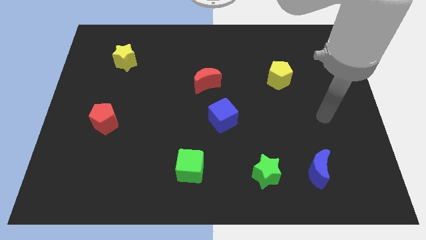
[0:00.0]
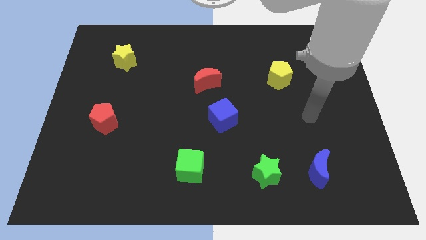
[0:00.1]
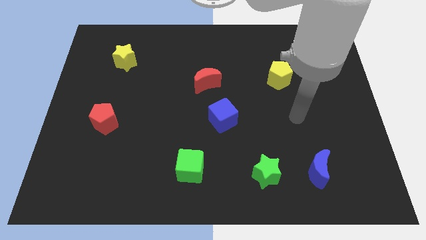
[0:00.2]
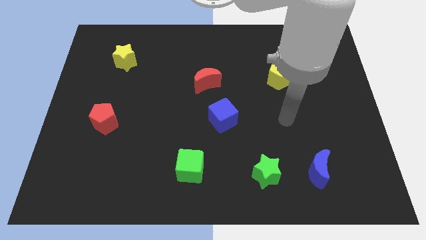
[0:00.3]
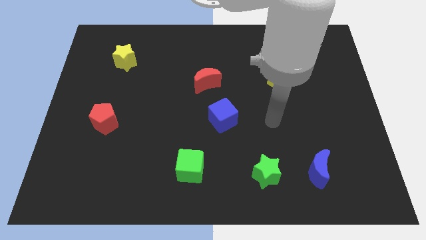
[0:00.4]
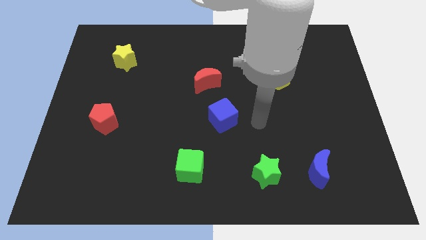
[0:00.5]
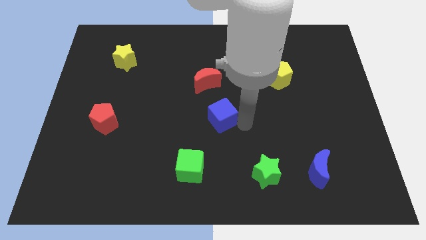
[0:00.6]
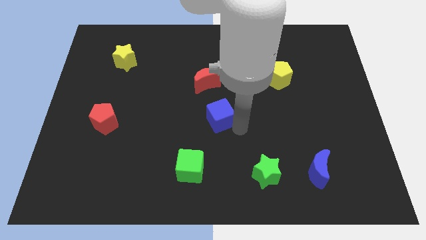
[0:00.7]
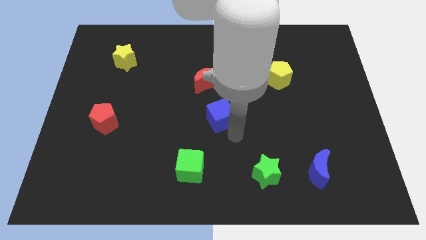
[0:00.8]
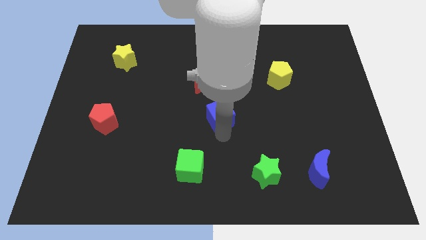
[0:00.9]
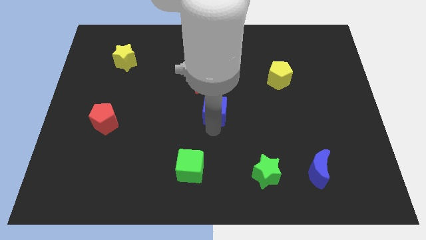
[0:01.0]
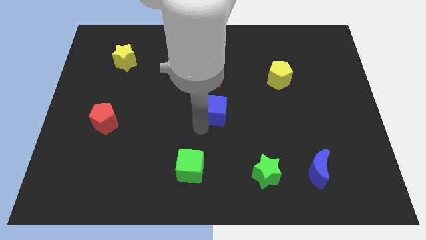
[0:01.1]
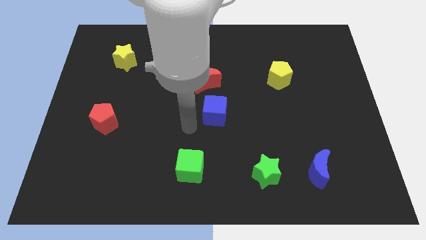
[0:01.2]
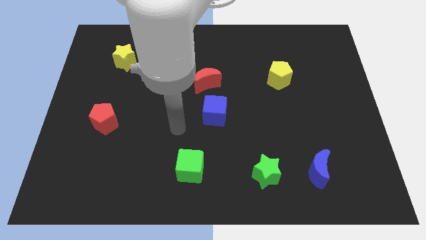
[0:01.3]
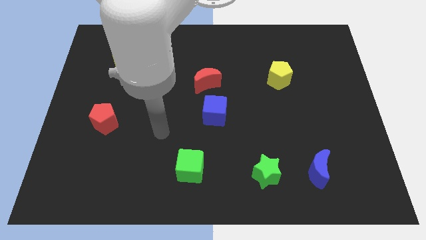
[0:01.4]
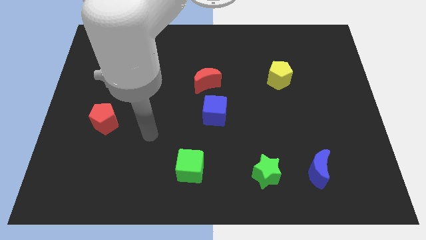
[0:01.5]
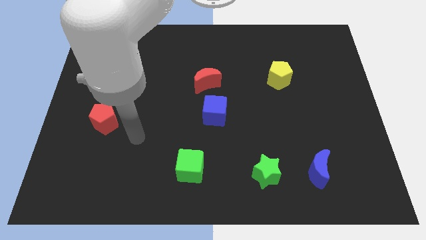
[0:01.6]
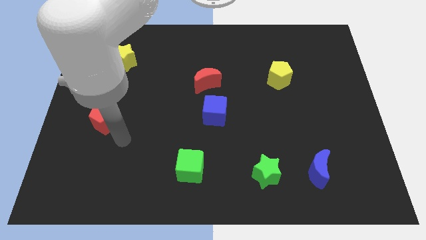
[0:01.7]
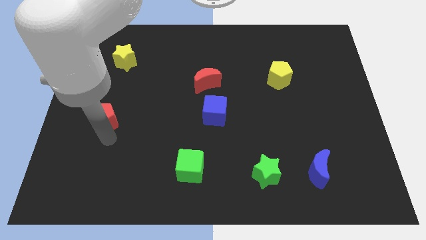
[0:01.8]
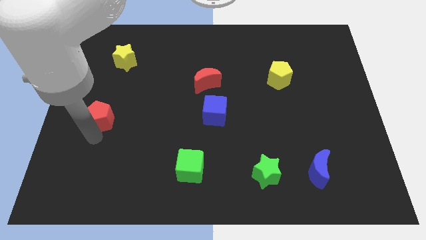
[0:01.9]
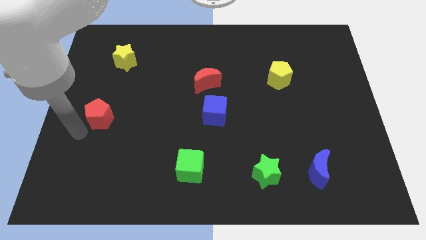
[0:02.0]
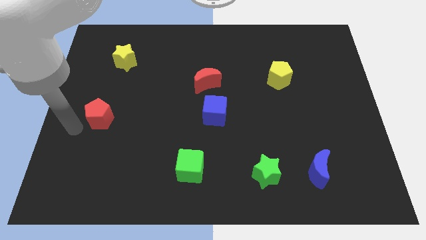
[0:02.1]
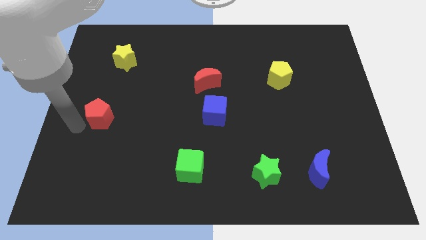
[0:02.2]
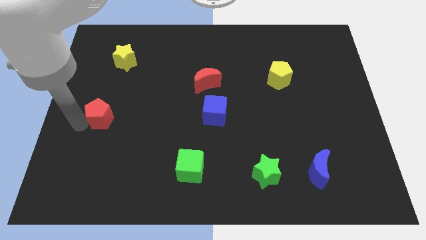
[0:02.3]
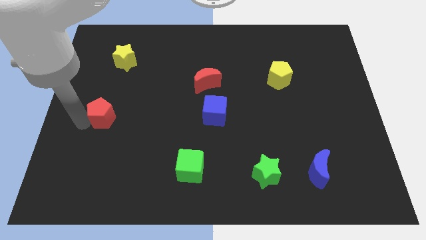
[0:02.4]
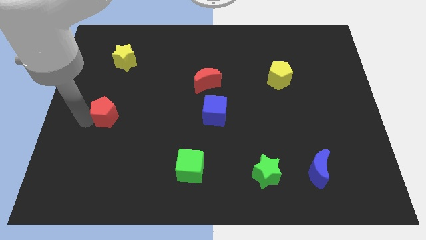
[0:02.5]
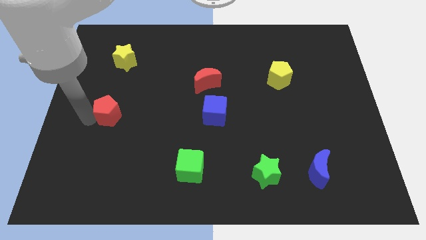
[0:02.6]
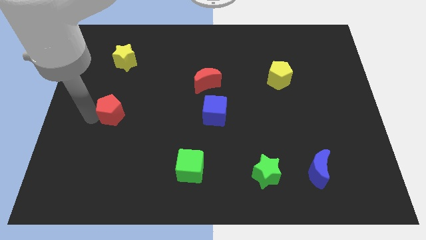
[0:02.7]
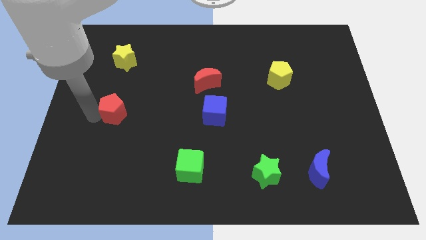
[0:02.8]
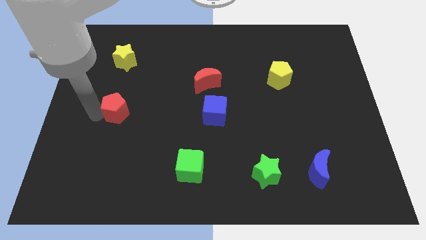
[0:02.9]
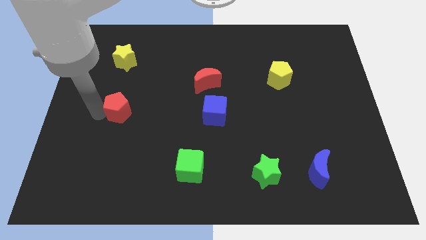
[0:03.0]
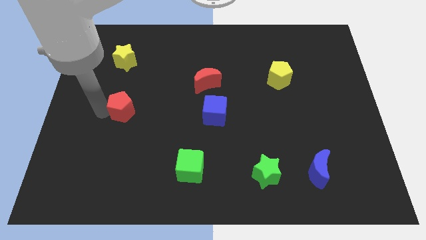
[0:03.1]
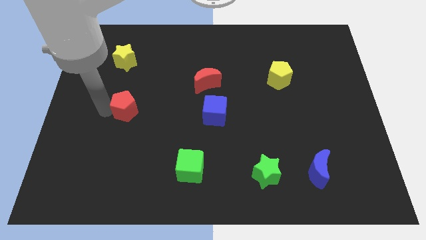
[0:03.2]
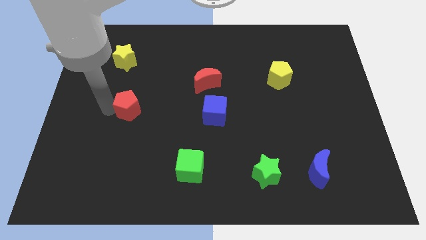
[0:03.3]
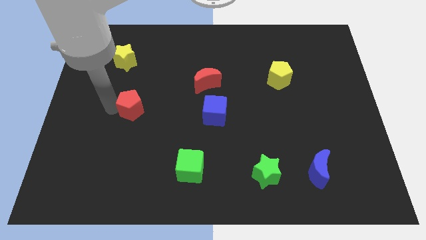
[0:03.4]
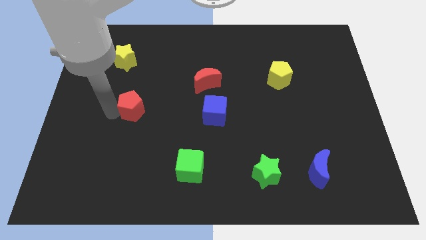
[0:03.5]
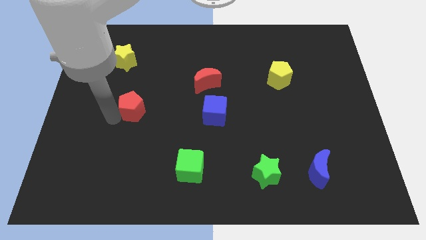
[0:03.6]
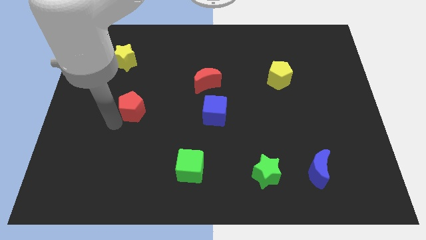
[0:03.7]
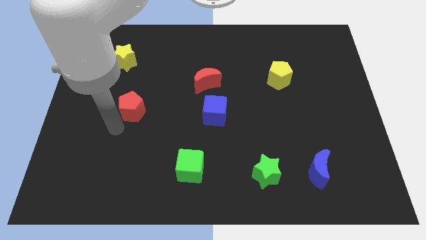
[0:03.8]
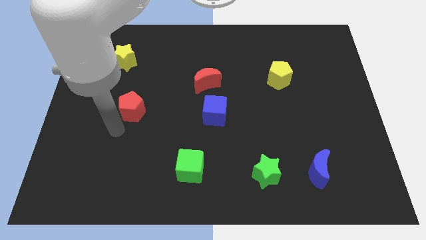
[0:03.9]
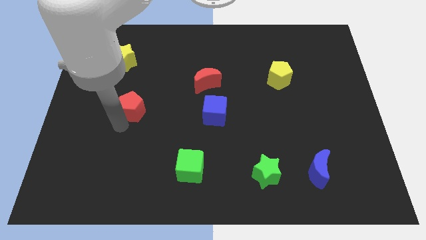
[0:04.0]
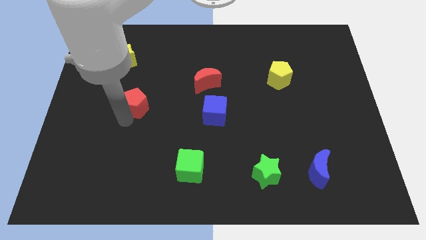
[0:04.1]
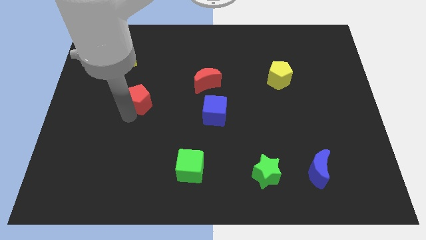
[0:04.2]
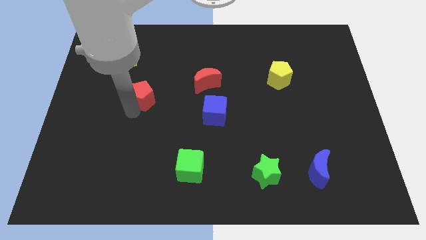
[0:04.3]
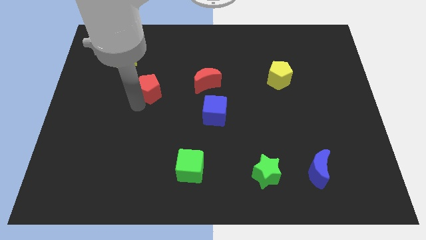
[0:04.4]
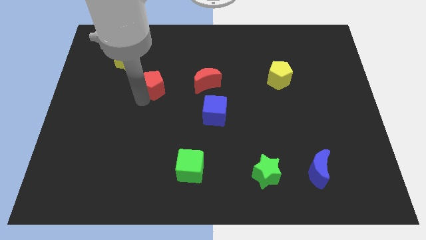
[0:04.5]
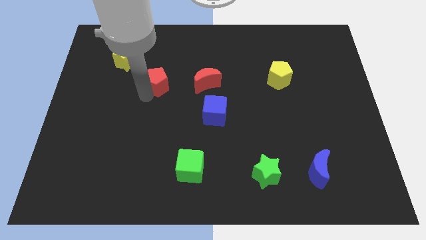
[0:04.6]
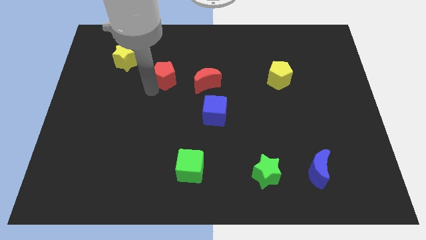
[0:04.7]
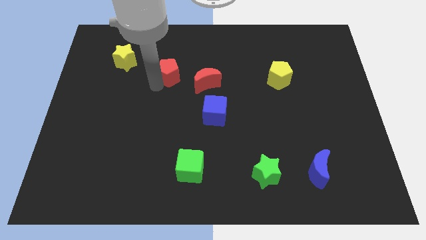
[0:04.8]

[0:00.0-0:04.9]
move the red pentagon to the top left of the red moon

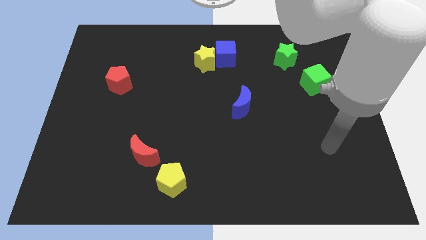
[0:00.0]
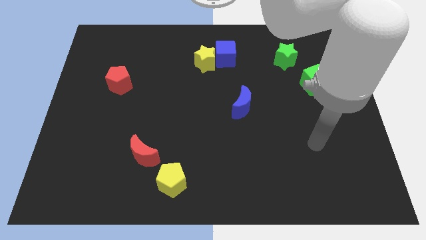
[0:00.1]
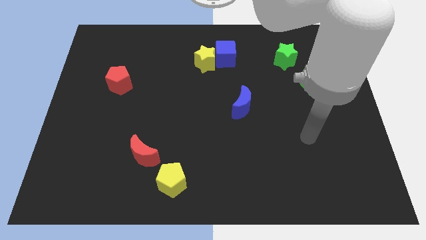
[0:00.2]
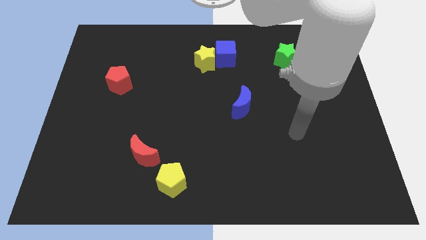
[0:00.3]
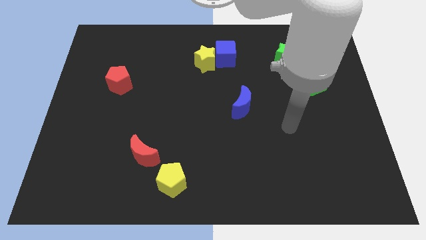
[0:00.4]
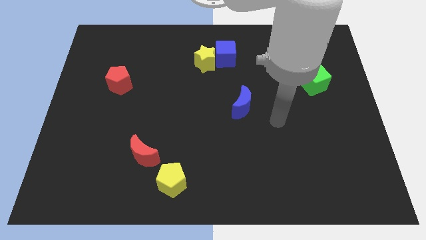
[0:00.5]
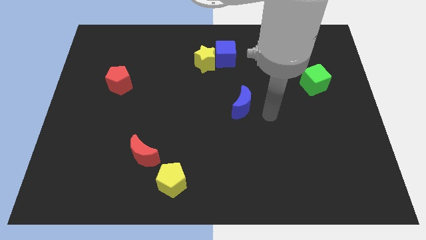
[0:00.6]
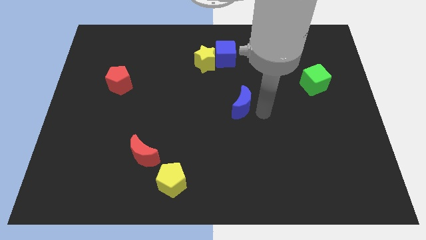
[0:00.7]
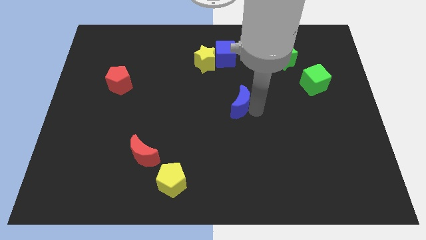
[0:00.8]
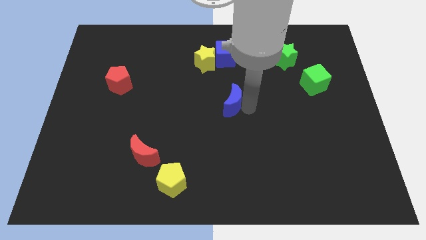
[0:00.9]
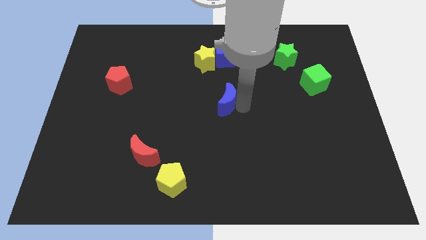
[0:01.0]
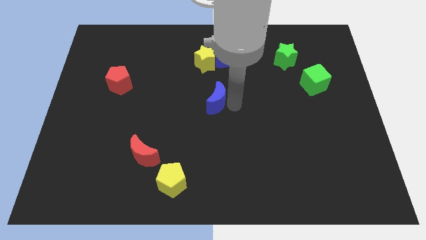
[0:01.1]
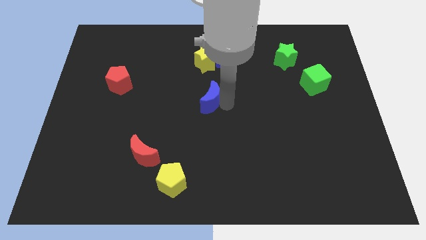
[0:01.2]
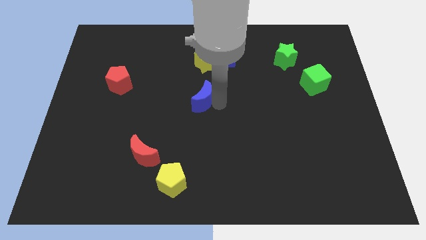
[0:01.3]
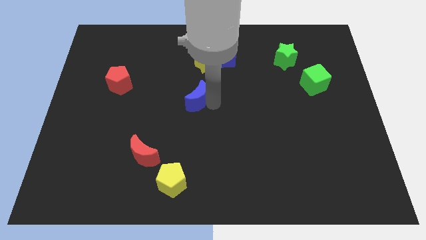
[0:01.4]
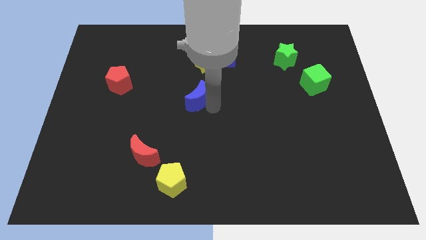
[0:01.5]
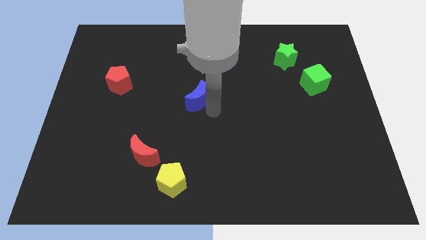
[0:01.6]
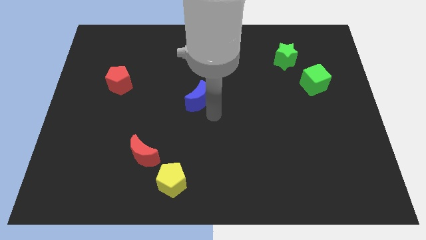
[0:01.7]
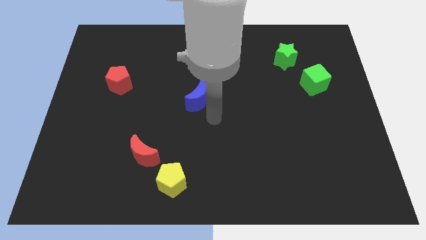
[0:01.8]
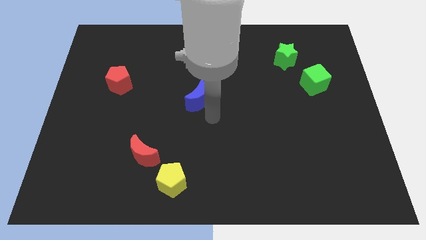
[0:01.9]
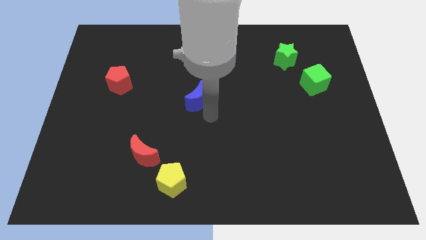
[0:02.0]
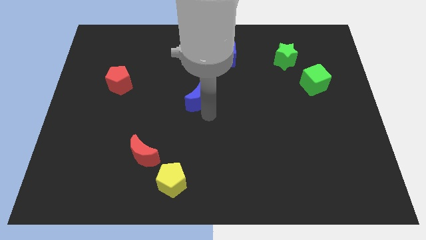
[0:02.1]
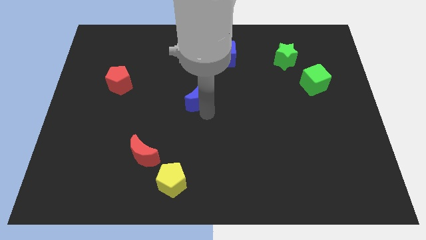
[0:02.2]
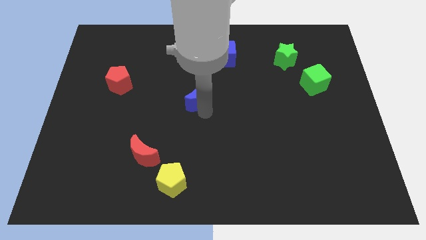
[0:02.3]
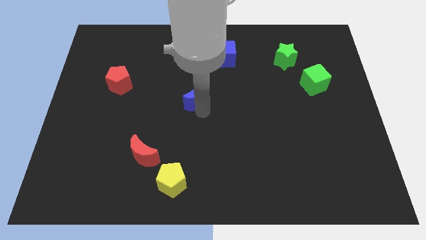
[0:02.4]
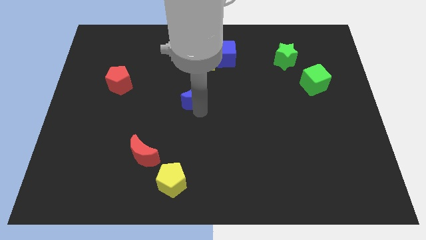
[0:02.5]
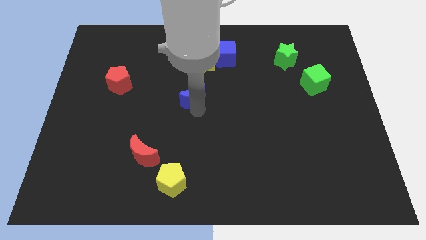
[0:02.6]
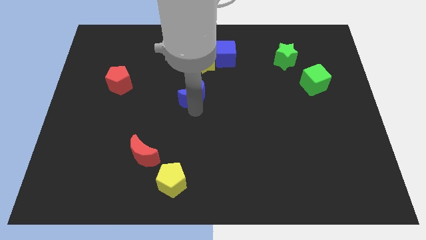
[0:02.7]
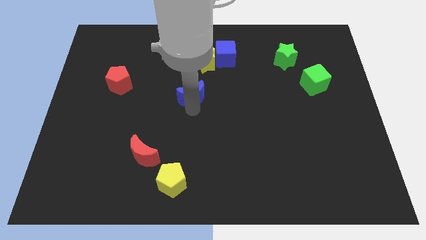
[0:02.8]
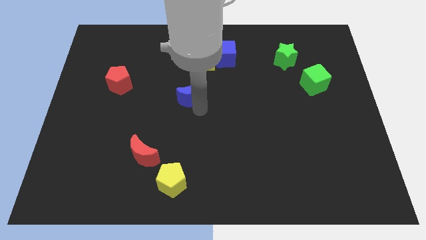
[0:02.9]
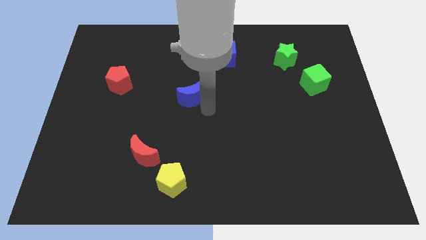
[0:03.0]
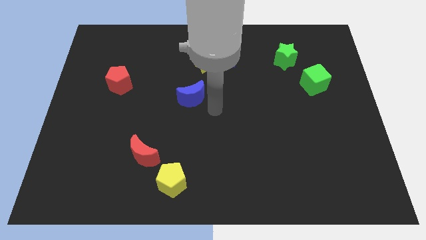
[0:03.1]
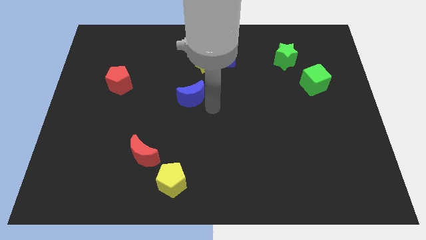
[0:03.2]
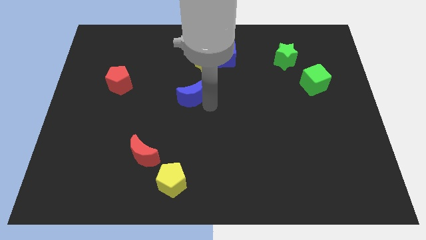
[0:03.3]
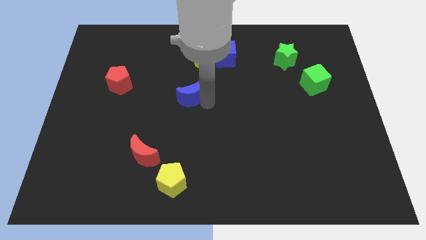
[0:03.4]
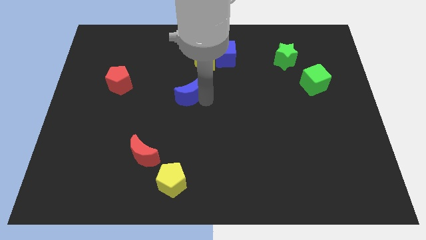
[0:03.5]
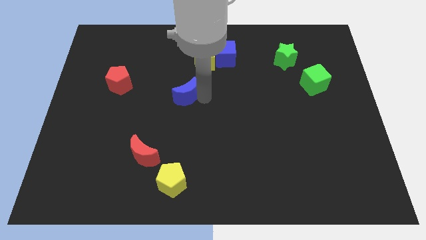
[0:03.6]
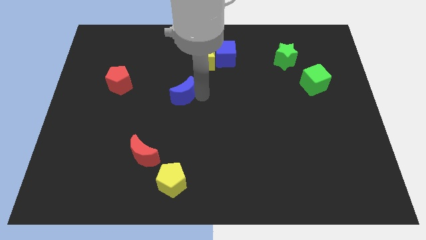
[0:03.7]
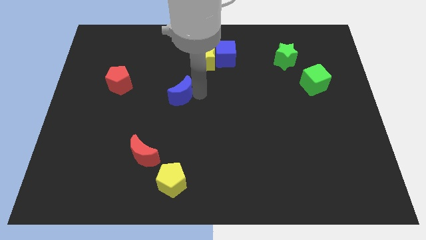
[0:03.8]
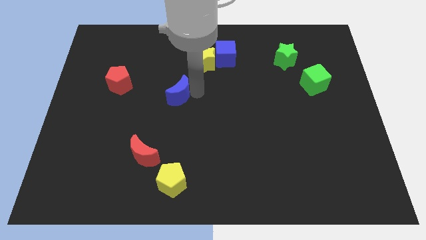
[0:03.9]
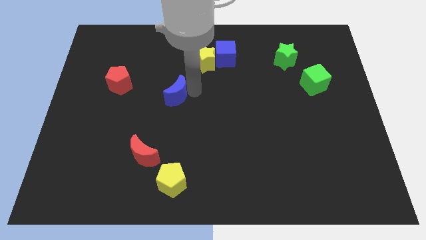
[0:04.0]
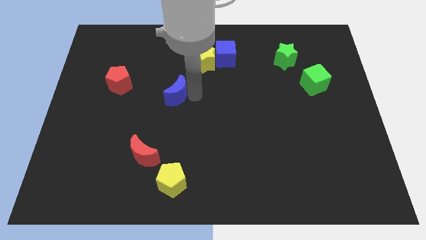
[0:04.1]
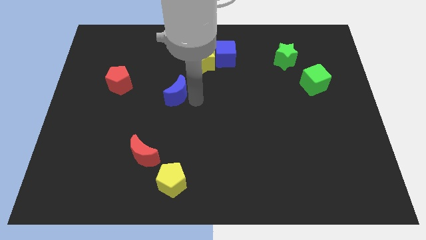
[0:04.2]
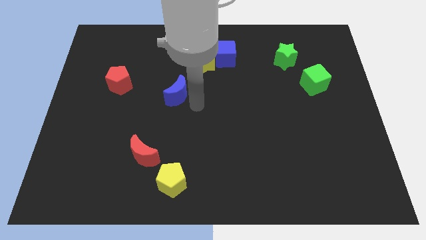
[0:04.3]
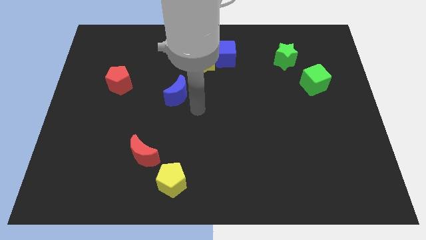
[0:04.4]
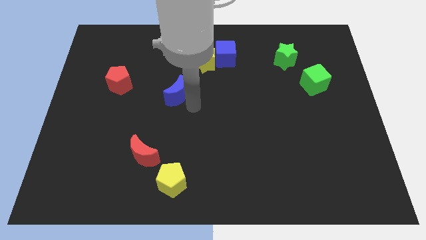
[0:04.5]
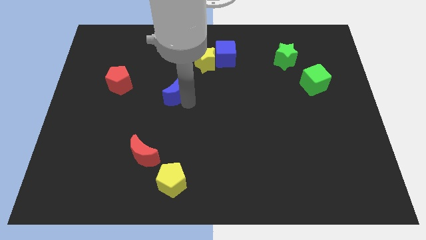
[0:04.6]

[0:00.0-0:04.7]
put the blue moon to the right side of the red pentagon
